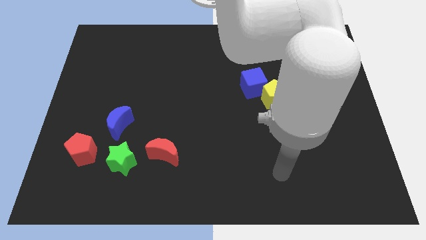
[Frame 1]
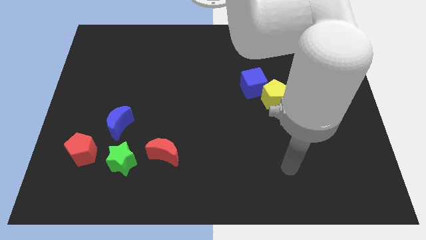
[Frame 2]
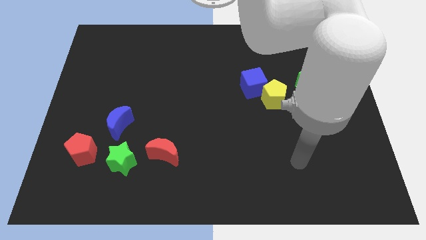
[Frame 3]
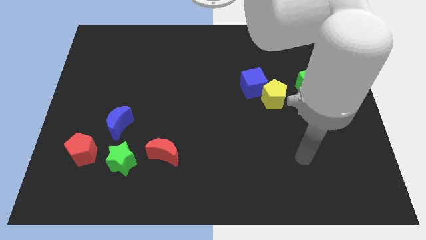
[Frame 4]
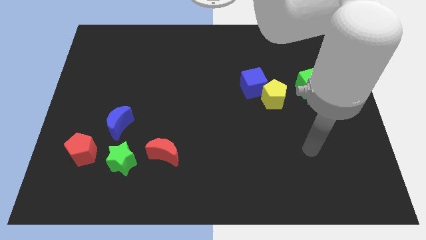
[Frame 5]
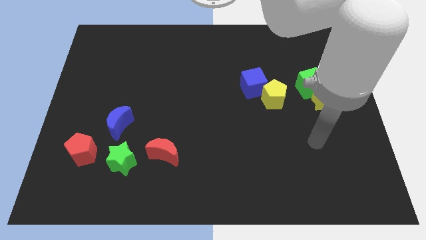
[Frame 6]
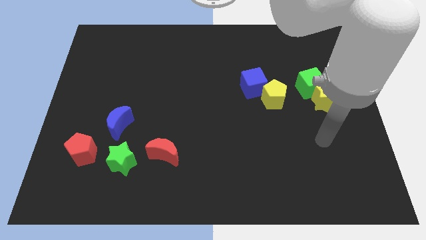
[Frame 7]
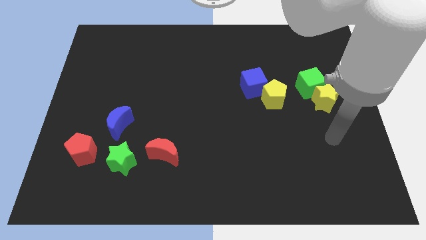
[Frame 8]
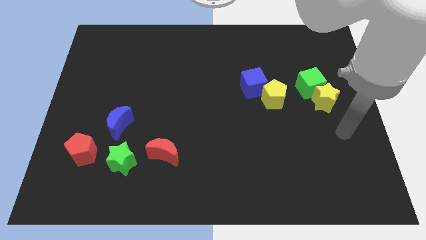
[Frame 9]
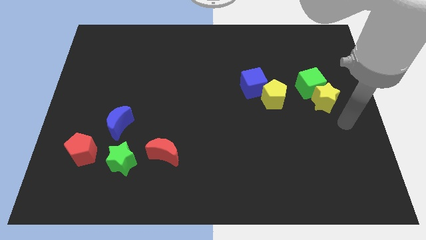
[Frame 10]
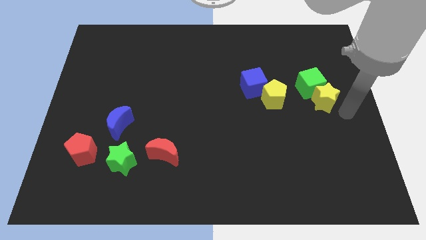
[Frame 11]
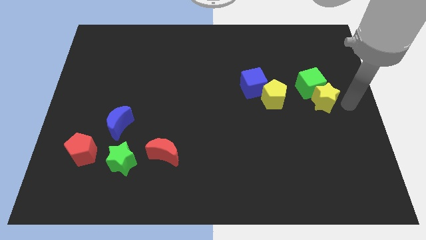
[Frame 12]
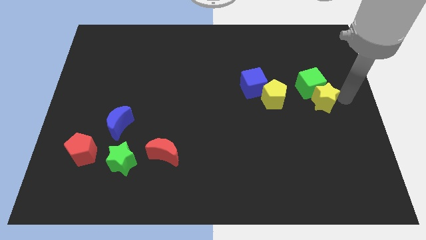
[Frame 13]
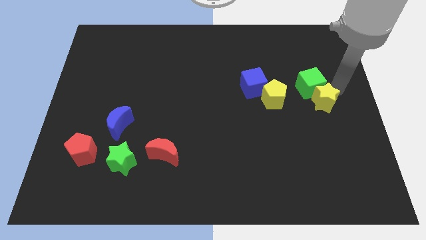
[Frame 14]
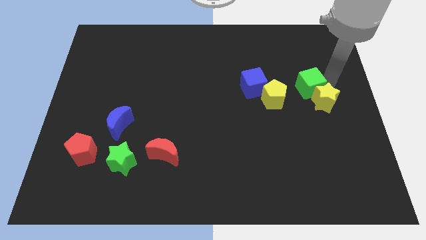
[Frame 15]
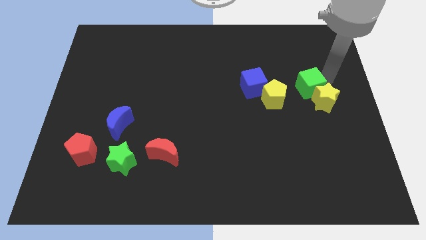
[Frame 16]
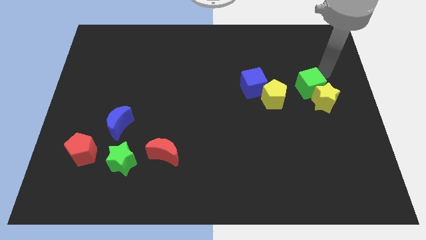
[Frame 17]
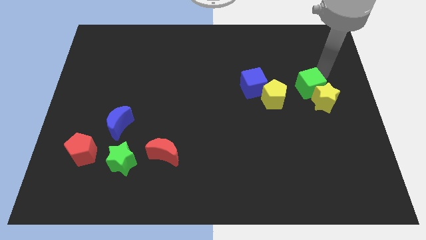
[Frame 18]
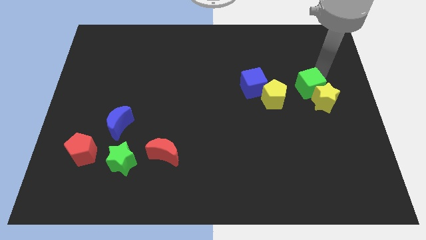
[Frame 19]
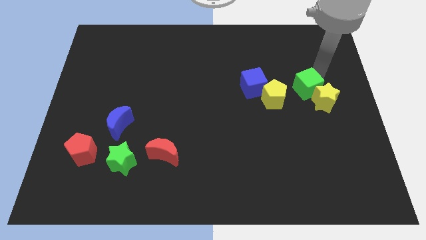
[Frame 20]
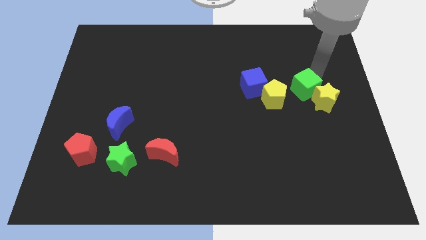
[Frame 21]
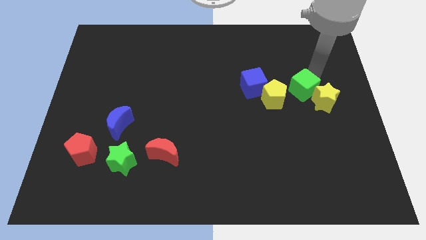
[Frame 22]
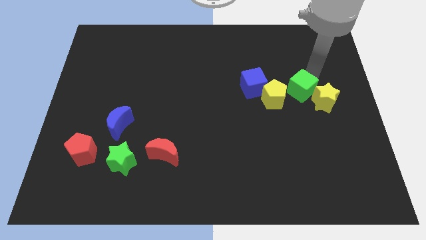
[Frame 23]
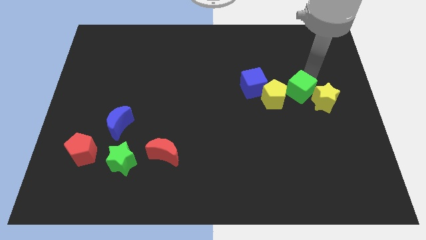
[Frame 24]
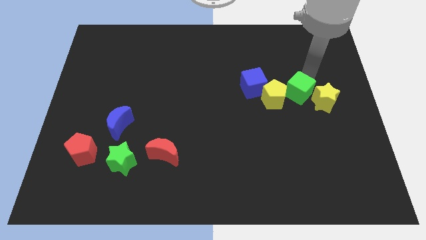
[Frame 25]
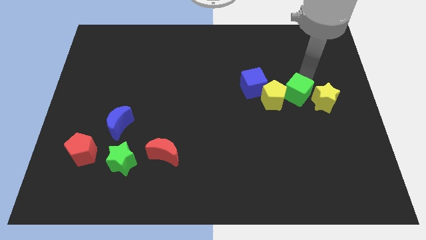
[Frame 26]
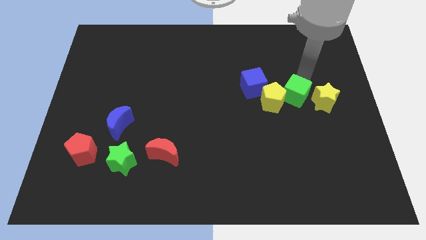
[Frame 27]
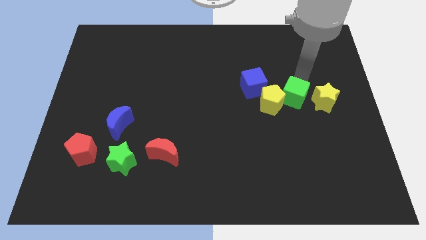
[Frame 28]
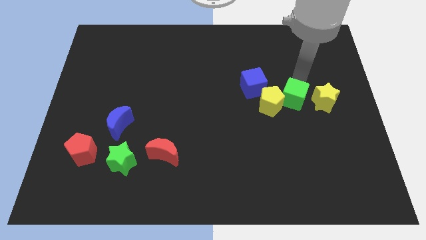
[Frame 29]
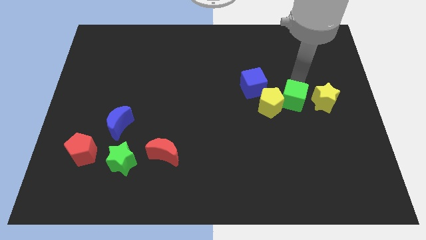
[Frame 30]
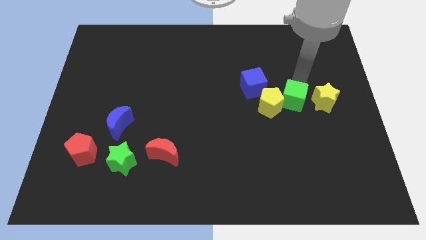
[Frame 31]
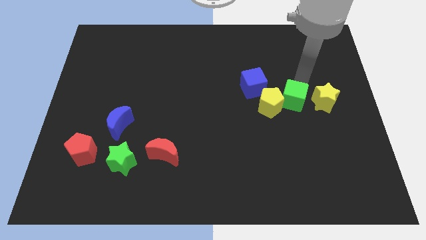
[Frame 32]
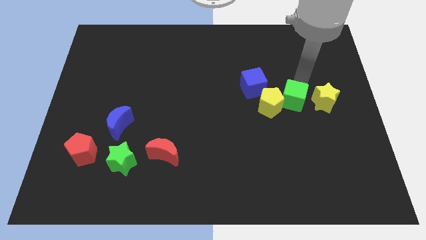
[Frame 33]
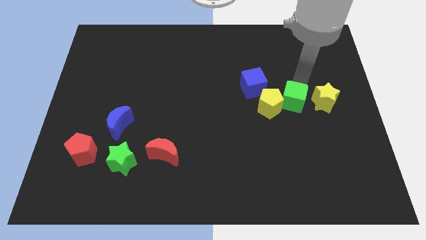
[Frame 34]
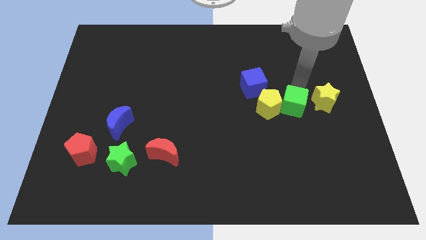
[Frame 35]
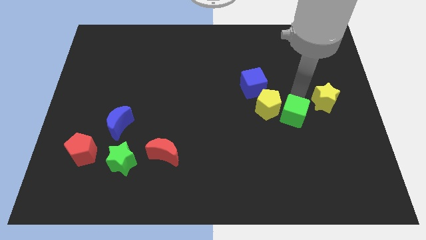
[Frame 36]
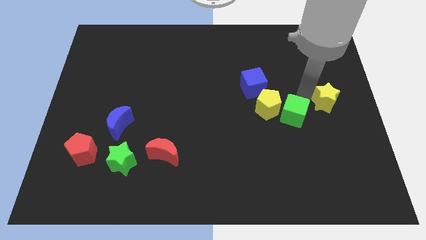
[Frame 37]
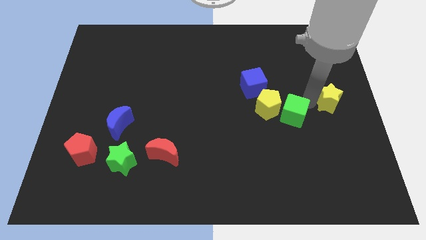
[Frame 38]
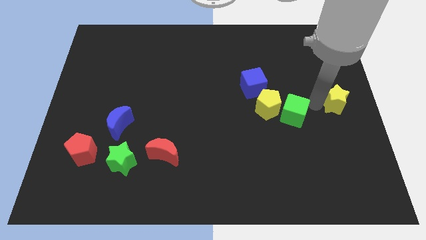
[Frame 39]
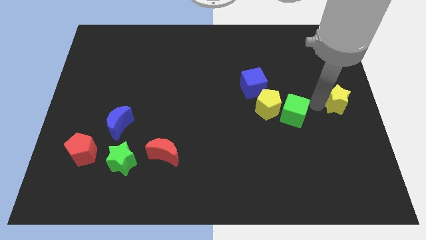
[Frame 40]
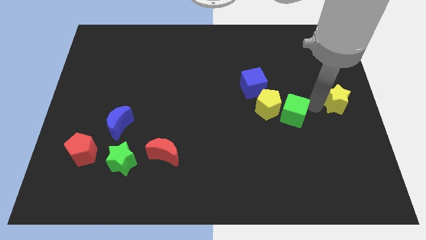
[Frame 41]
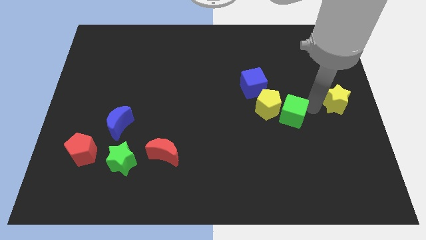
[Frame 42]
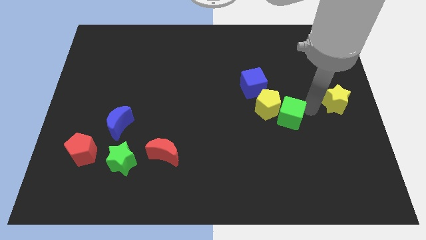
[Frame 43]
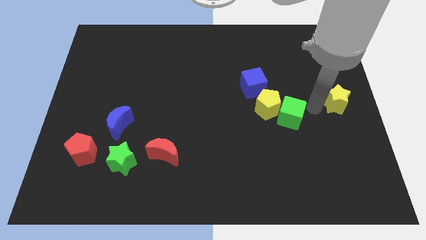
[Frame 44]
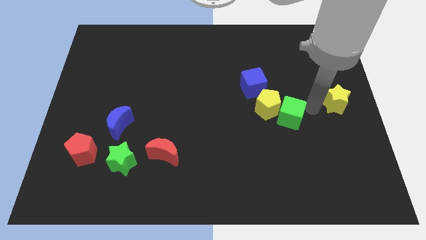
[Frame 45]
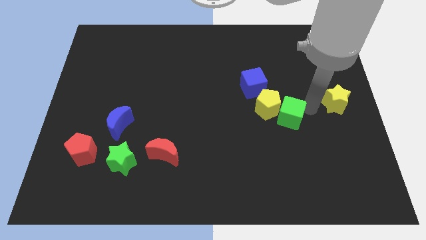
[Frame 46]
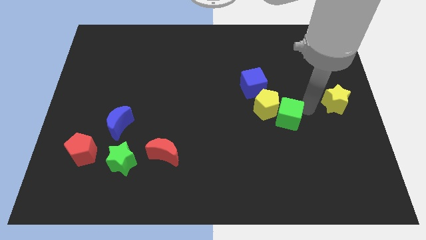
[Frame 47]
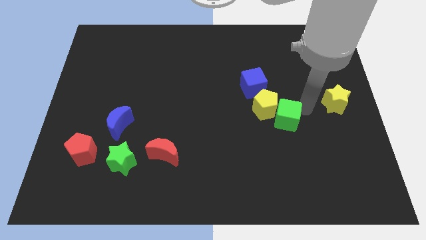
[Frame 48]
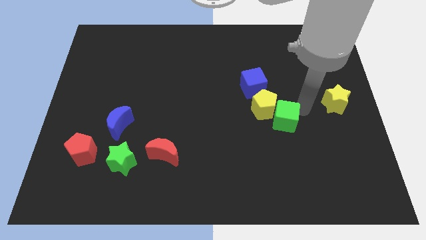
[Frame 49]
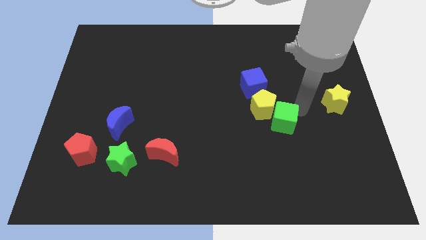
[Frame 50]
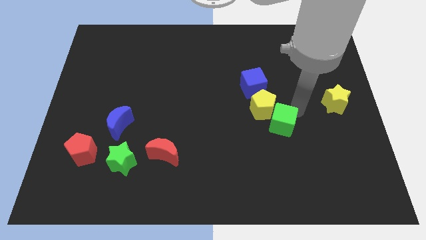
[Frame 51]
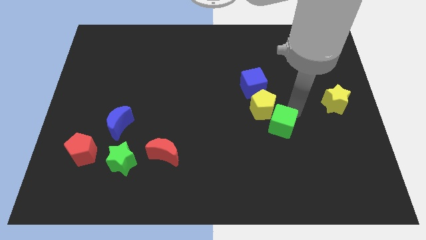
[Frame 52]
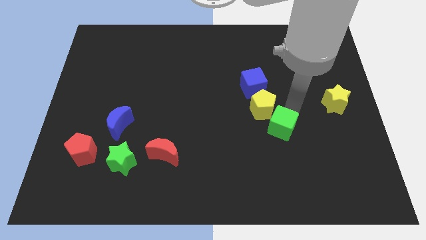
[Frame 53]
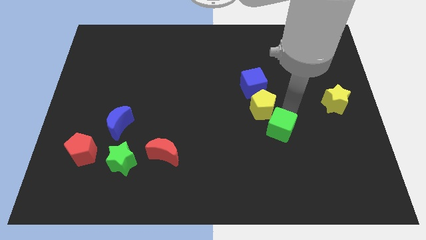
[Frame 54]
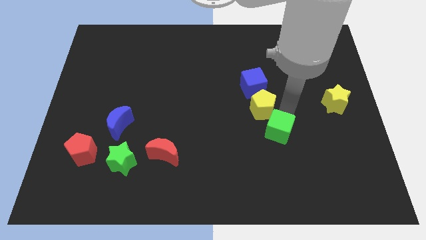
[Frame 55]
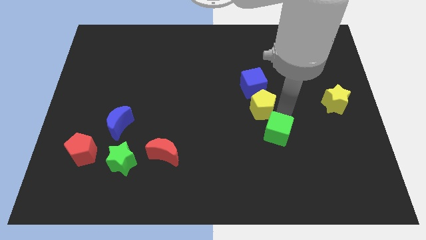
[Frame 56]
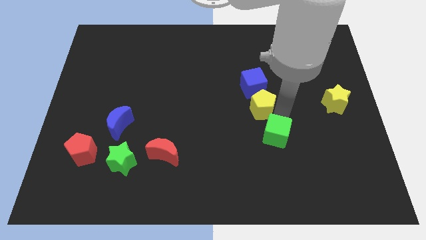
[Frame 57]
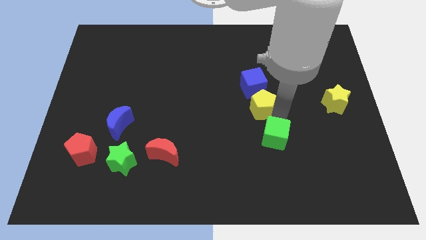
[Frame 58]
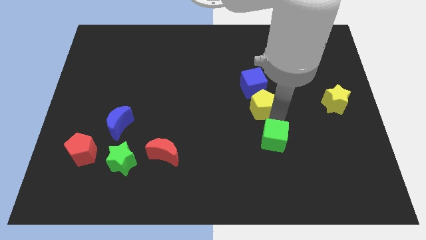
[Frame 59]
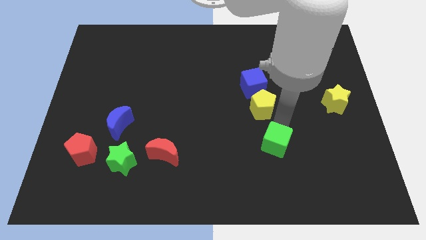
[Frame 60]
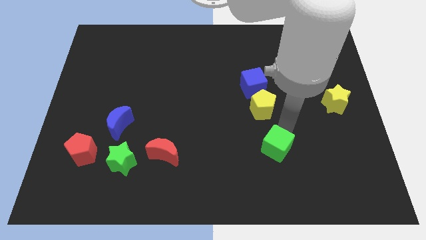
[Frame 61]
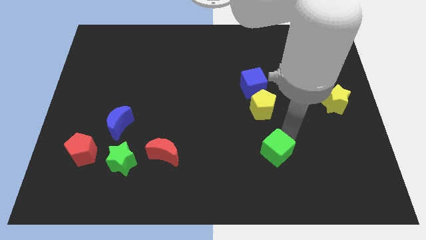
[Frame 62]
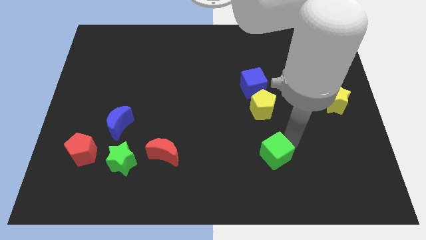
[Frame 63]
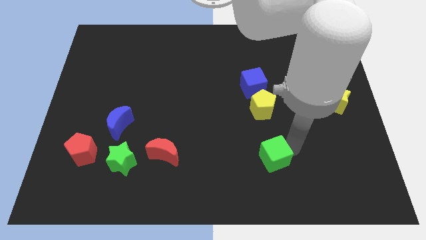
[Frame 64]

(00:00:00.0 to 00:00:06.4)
push the green cube down and to the left diagonally

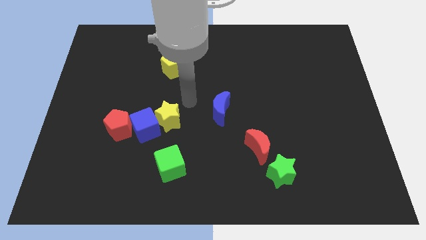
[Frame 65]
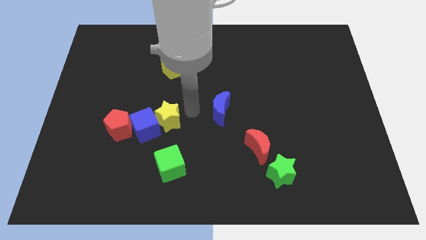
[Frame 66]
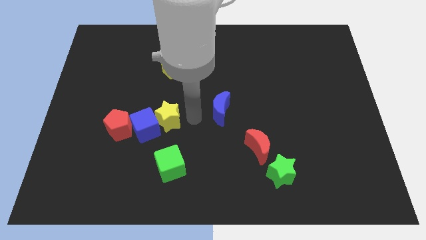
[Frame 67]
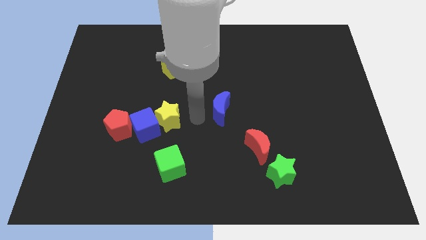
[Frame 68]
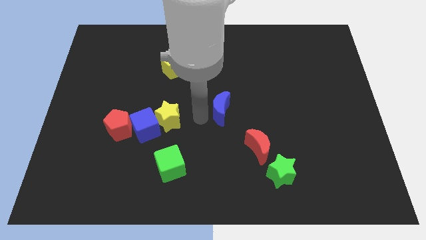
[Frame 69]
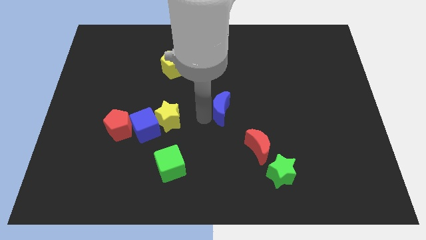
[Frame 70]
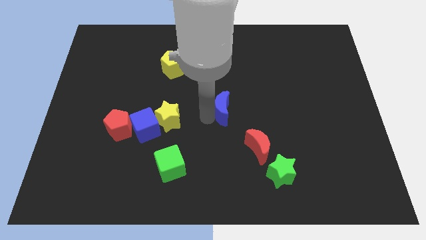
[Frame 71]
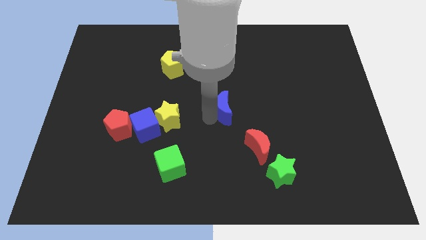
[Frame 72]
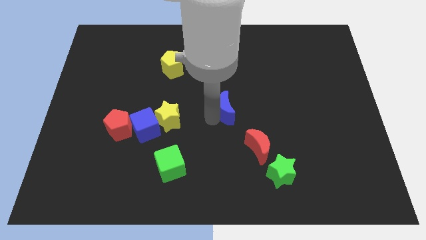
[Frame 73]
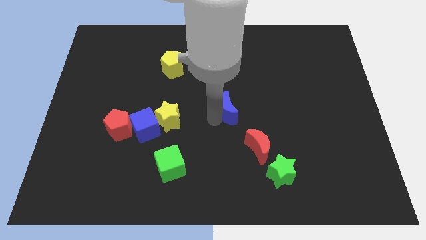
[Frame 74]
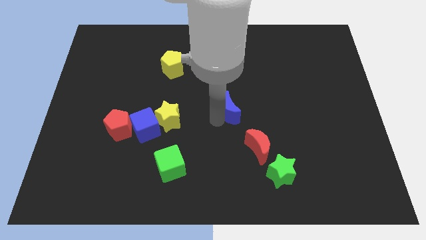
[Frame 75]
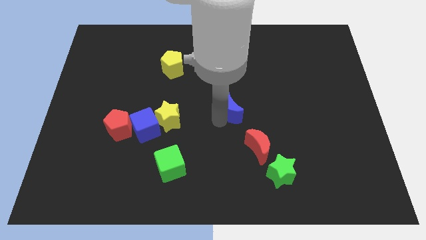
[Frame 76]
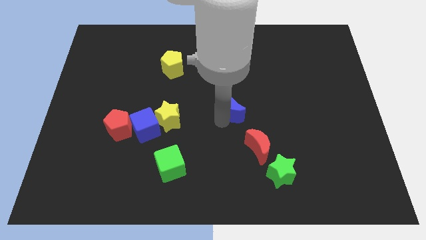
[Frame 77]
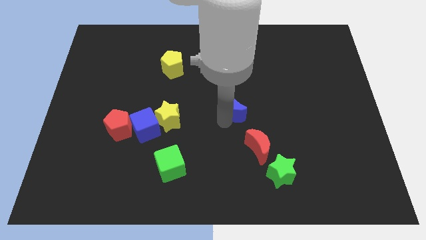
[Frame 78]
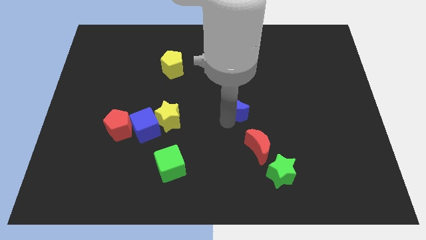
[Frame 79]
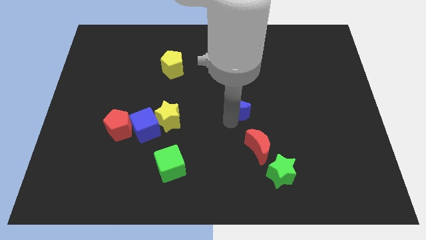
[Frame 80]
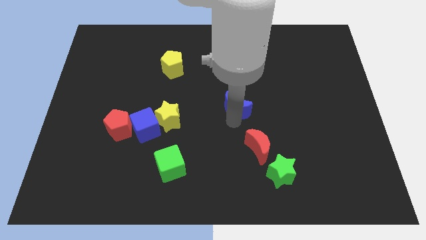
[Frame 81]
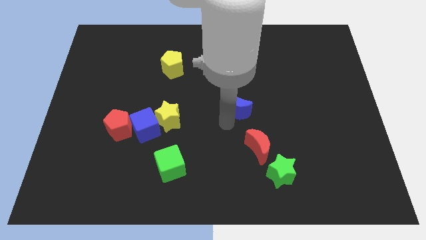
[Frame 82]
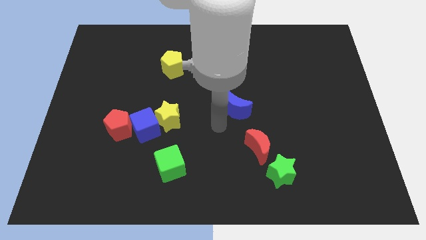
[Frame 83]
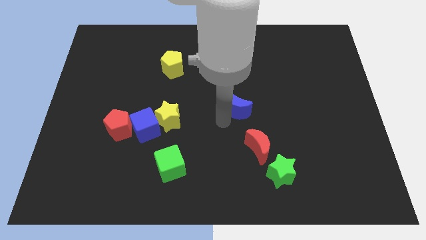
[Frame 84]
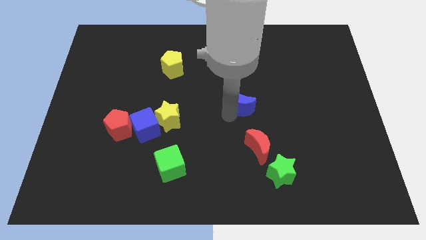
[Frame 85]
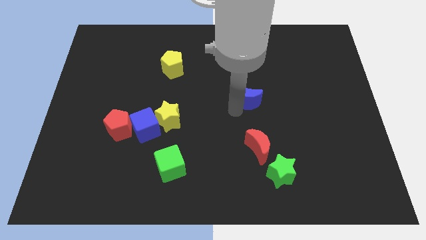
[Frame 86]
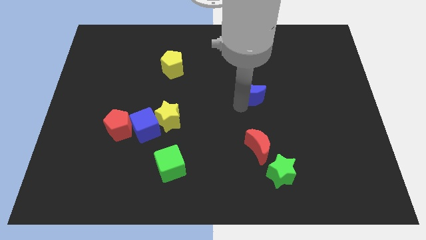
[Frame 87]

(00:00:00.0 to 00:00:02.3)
slightly move the blue moon up and right diagonally
